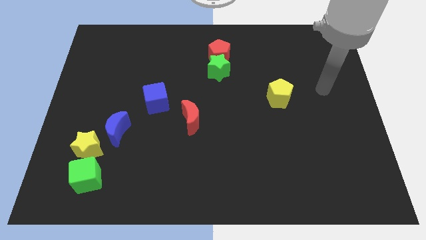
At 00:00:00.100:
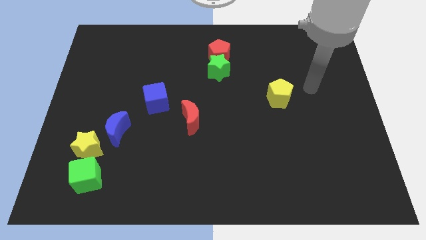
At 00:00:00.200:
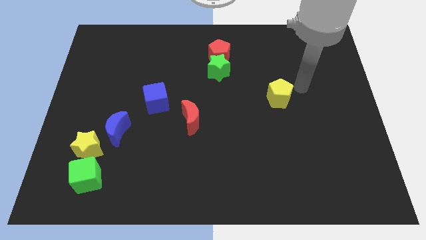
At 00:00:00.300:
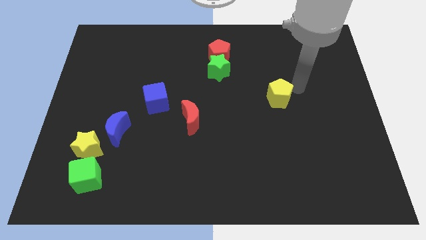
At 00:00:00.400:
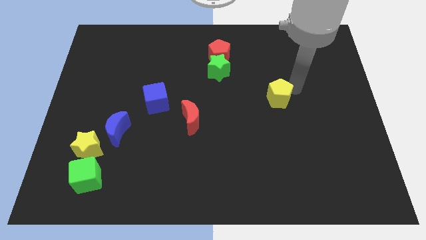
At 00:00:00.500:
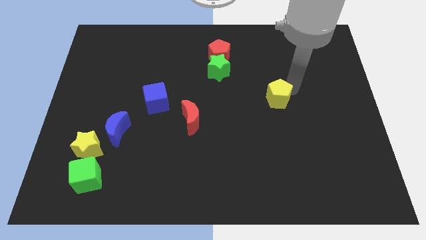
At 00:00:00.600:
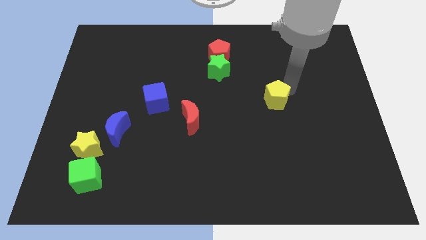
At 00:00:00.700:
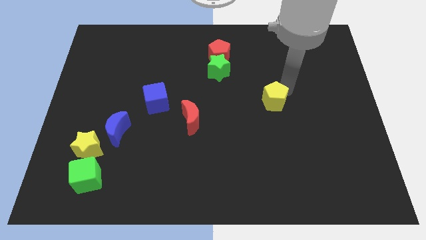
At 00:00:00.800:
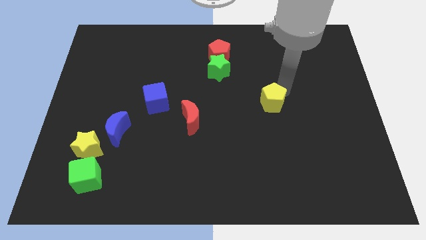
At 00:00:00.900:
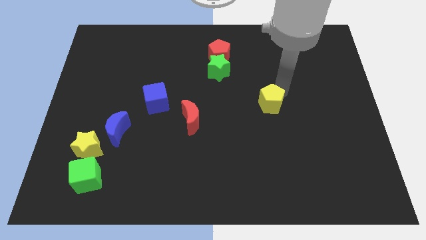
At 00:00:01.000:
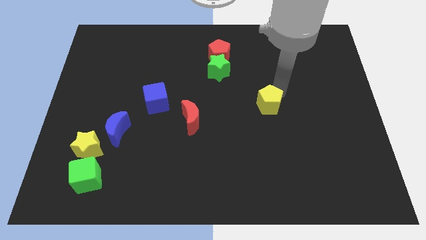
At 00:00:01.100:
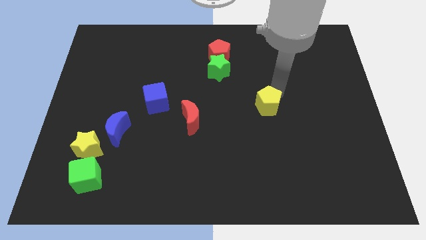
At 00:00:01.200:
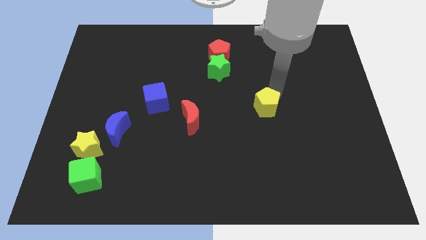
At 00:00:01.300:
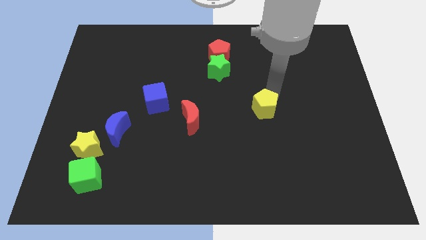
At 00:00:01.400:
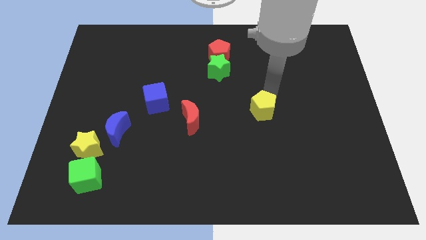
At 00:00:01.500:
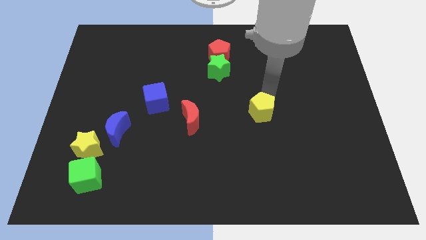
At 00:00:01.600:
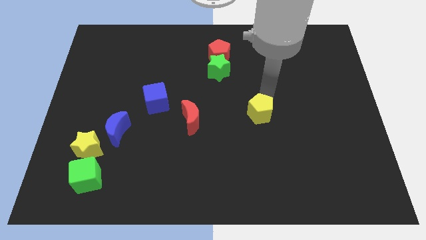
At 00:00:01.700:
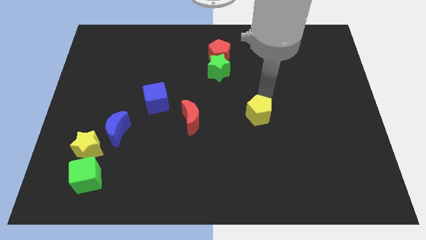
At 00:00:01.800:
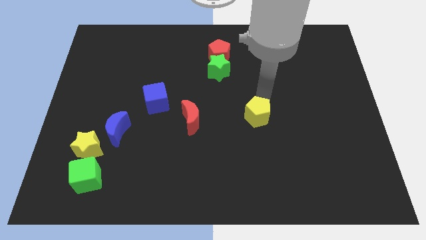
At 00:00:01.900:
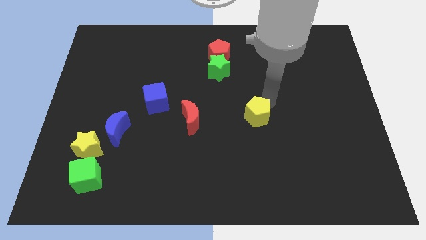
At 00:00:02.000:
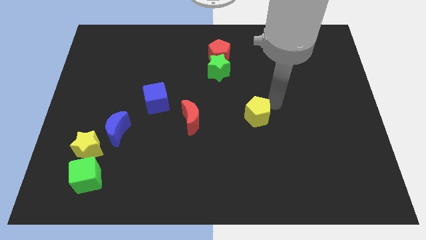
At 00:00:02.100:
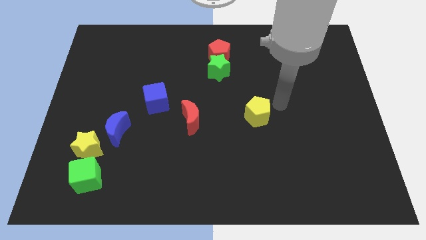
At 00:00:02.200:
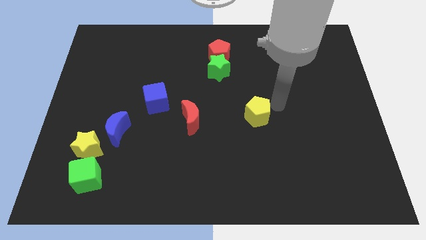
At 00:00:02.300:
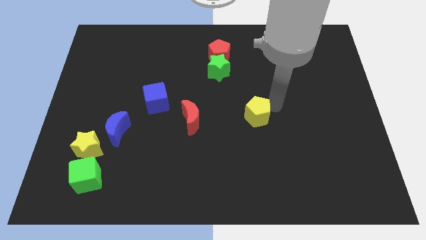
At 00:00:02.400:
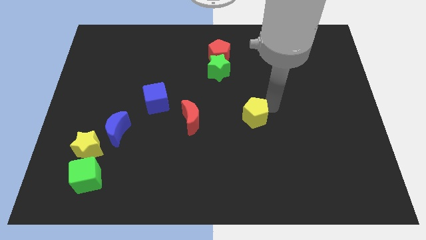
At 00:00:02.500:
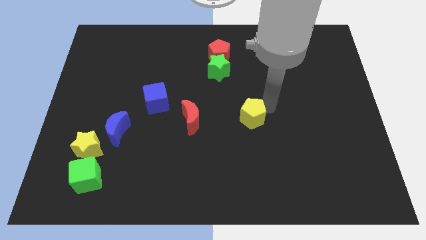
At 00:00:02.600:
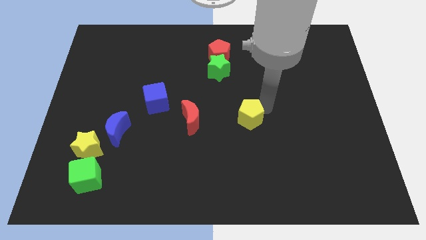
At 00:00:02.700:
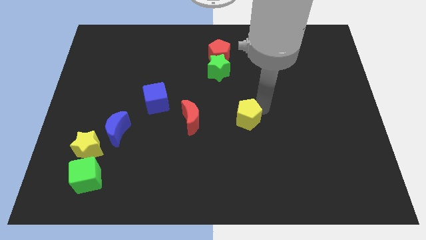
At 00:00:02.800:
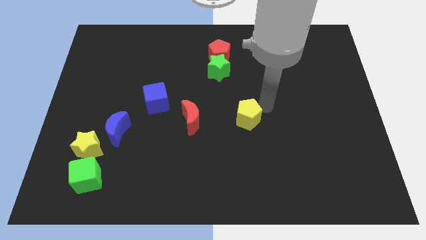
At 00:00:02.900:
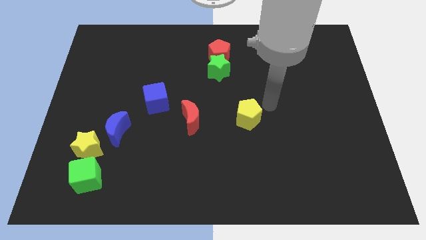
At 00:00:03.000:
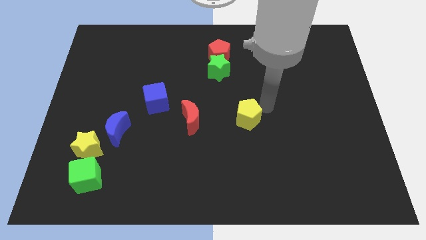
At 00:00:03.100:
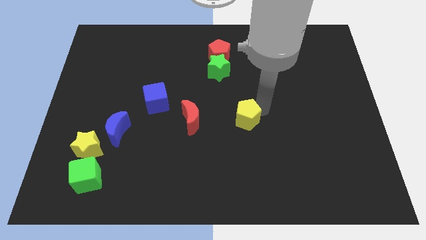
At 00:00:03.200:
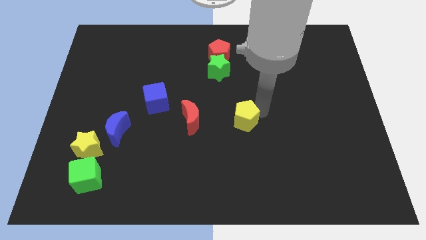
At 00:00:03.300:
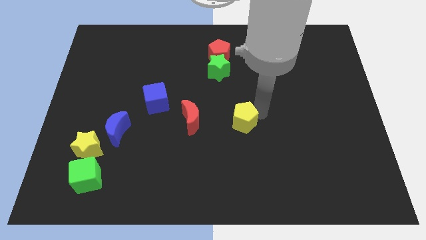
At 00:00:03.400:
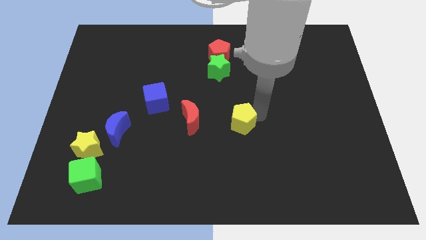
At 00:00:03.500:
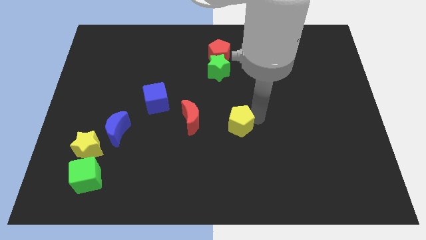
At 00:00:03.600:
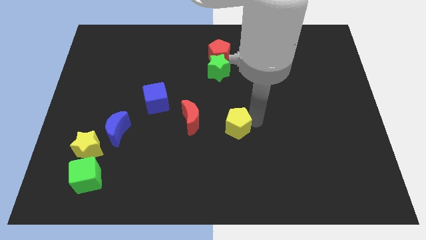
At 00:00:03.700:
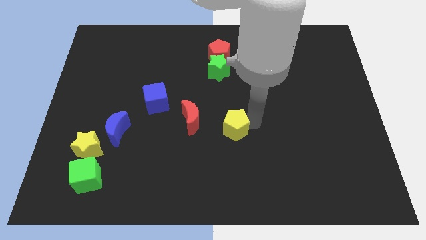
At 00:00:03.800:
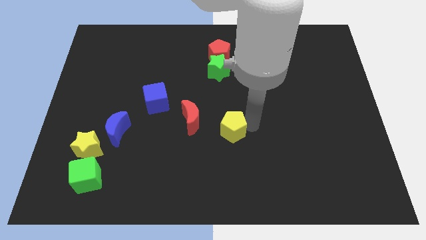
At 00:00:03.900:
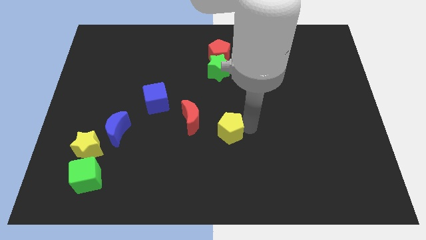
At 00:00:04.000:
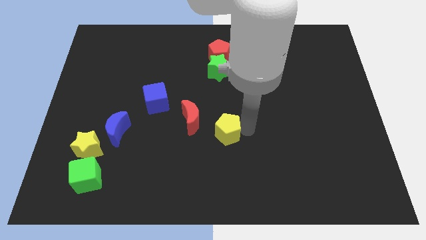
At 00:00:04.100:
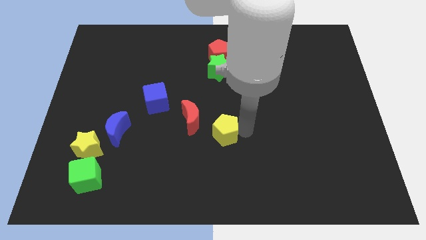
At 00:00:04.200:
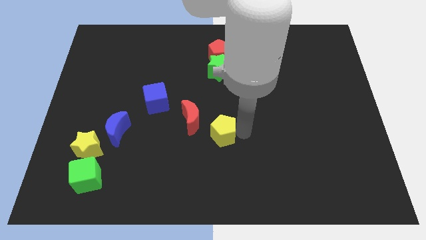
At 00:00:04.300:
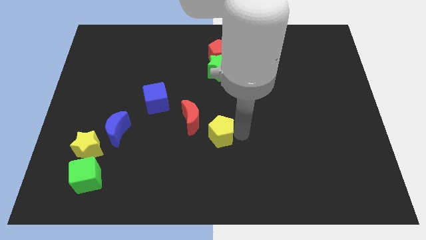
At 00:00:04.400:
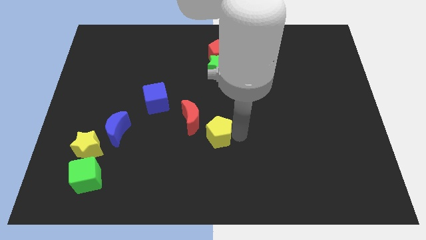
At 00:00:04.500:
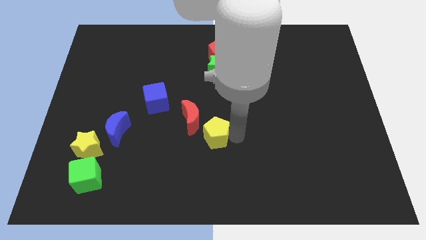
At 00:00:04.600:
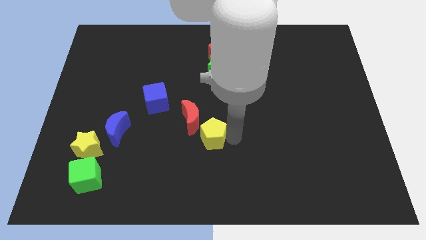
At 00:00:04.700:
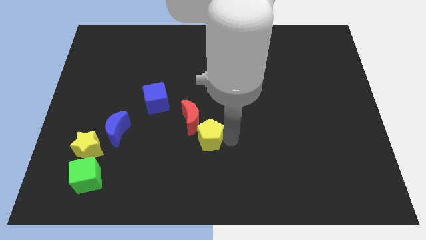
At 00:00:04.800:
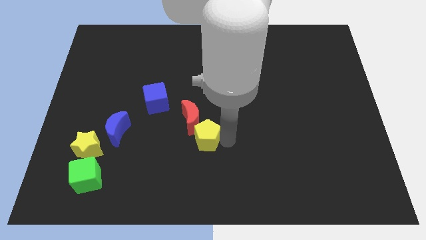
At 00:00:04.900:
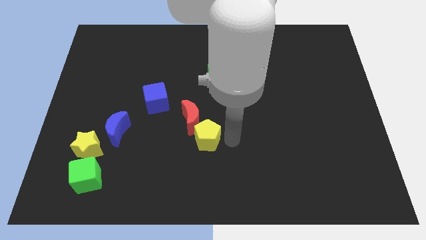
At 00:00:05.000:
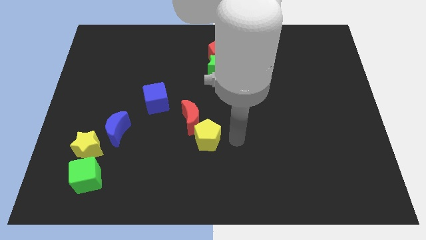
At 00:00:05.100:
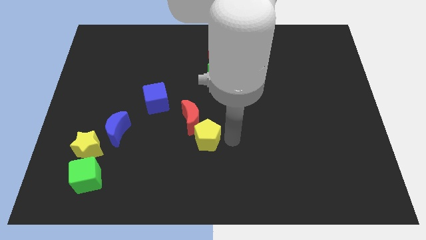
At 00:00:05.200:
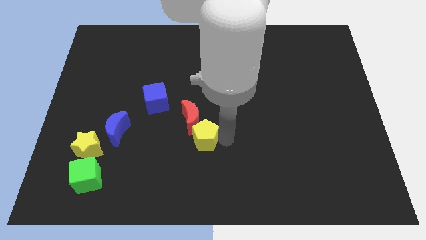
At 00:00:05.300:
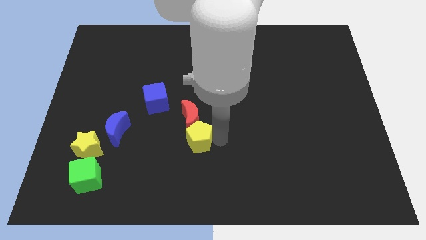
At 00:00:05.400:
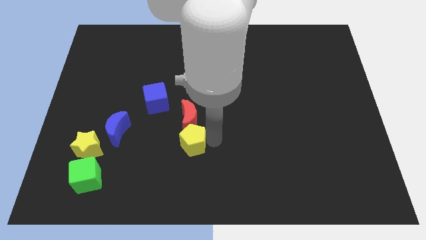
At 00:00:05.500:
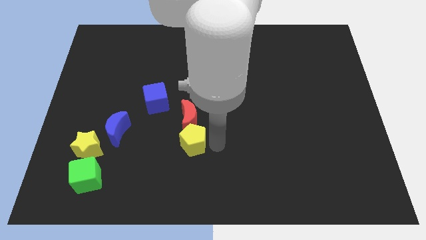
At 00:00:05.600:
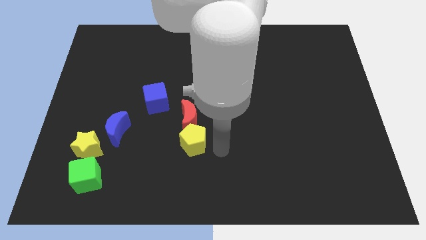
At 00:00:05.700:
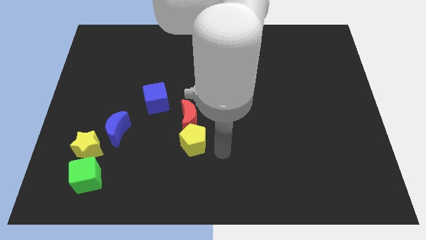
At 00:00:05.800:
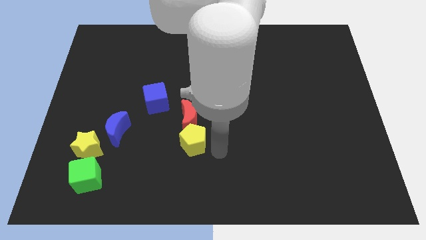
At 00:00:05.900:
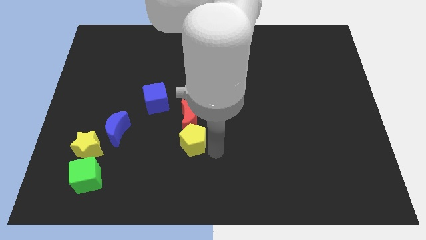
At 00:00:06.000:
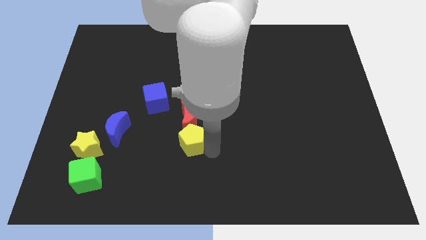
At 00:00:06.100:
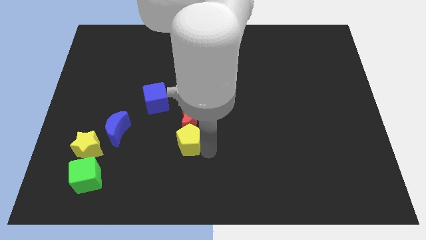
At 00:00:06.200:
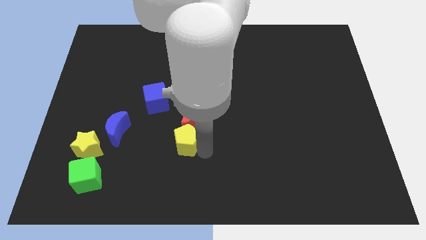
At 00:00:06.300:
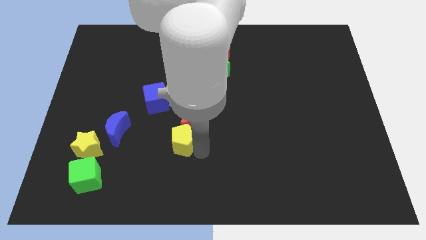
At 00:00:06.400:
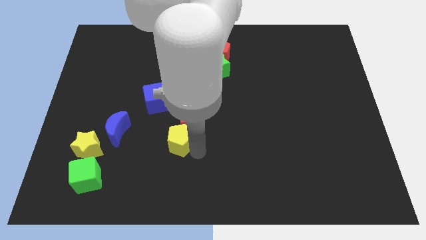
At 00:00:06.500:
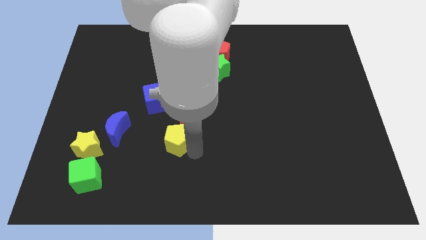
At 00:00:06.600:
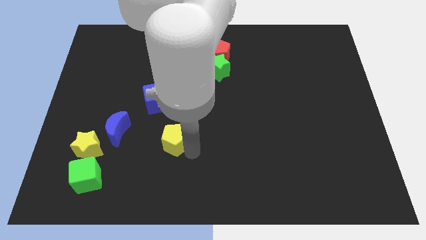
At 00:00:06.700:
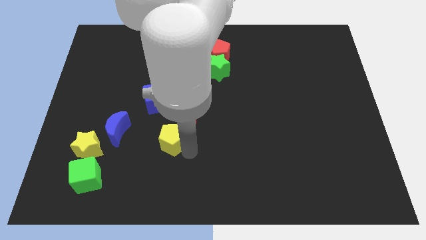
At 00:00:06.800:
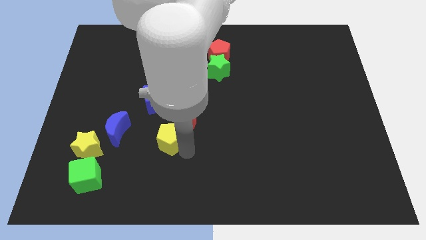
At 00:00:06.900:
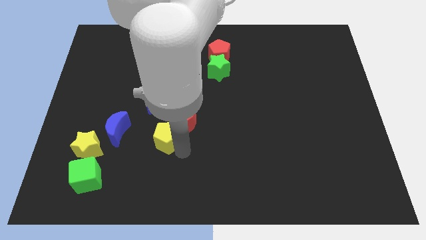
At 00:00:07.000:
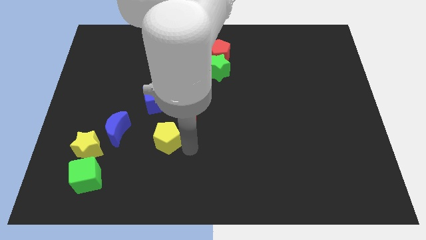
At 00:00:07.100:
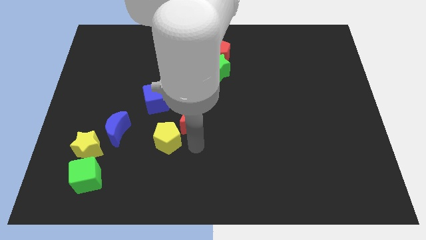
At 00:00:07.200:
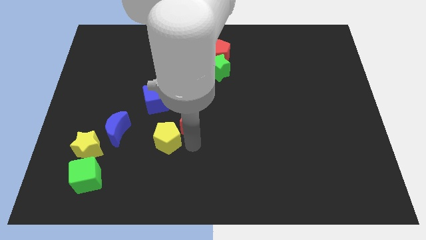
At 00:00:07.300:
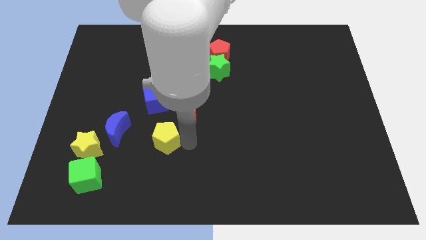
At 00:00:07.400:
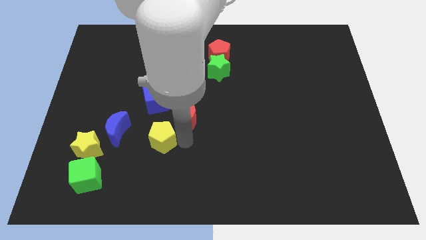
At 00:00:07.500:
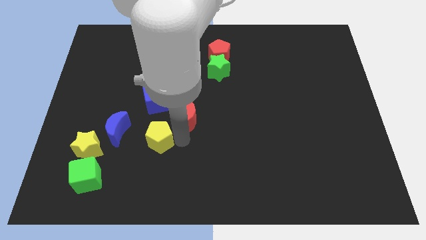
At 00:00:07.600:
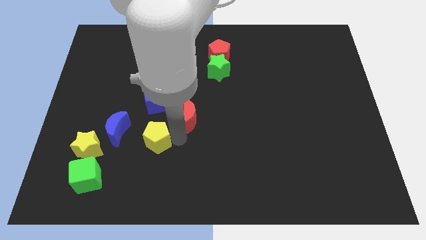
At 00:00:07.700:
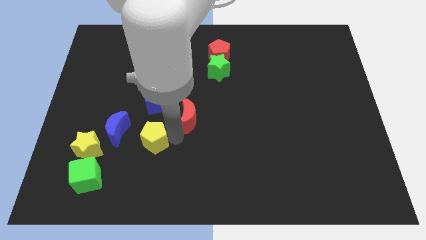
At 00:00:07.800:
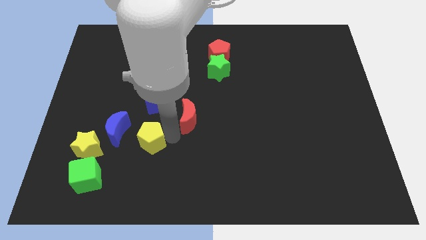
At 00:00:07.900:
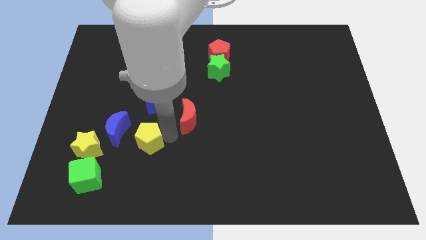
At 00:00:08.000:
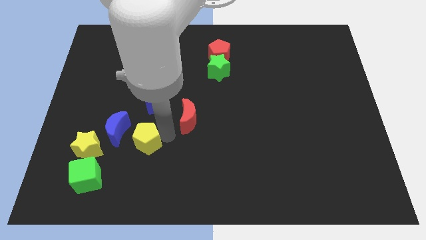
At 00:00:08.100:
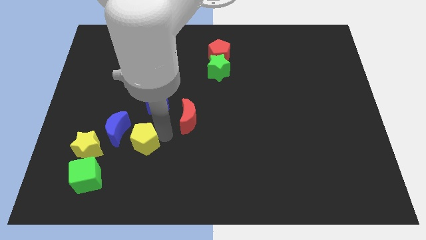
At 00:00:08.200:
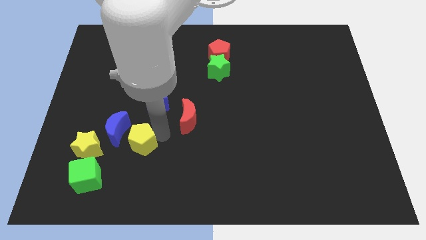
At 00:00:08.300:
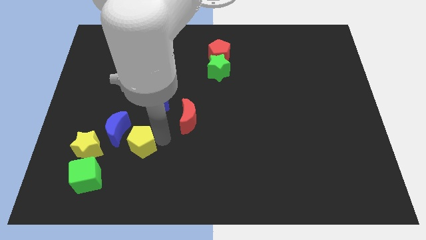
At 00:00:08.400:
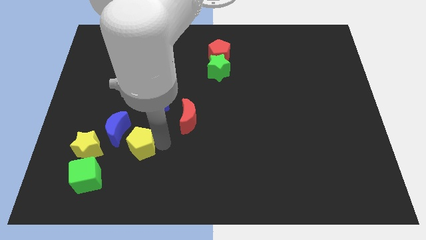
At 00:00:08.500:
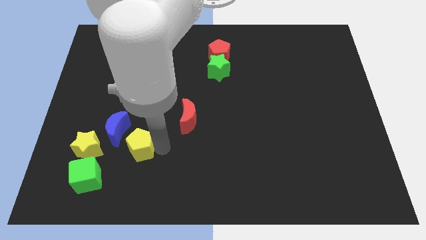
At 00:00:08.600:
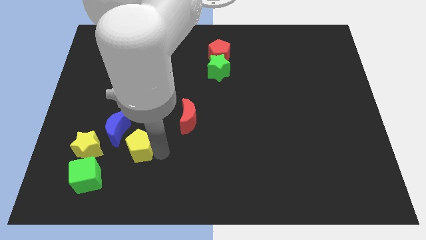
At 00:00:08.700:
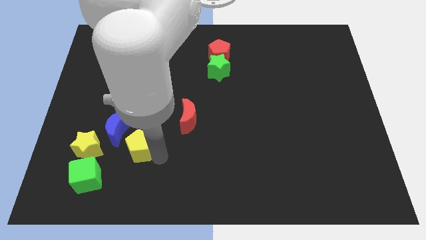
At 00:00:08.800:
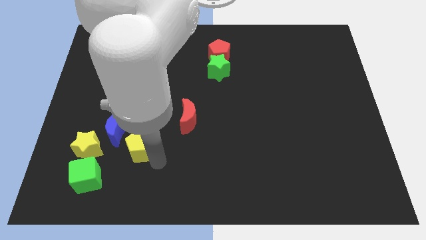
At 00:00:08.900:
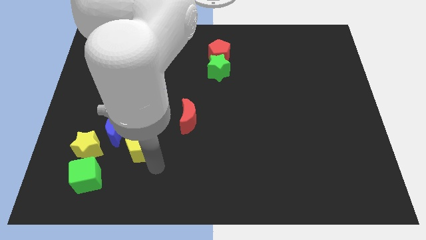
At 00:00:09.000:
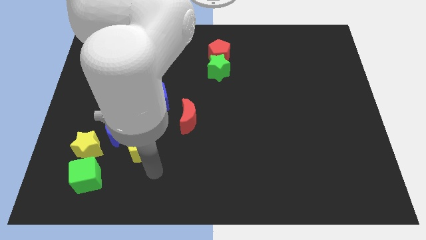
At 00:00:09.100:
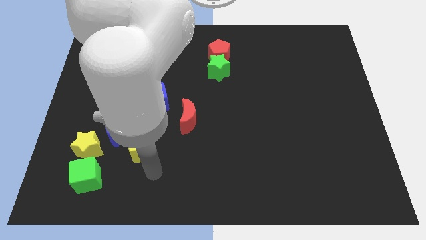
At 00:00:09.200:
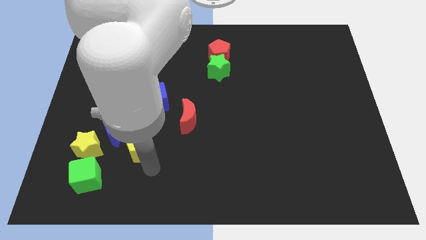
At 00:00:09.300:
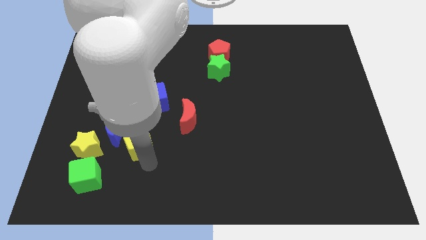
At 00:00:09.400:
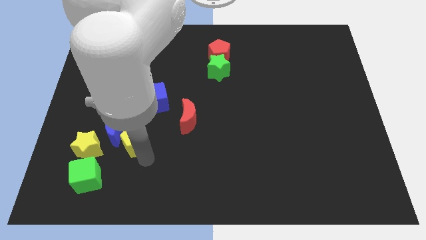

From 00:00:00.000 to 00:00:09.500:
put the yellow pentagon close to the blue moon
